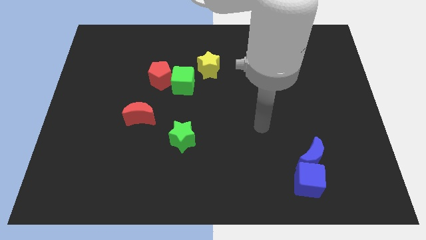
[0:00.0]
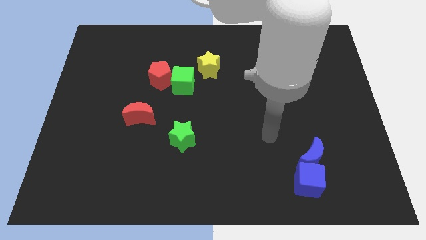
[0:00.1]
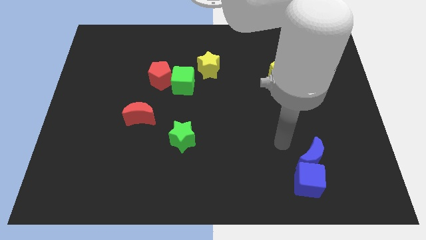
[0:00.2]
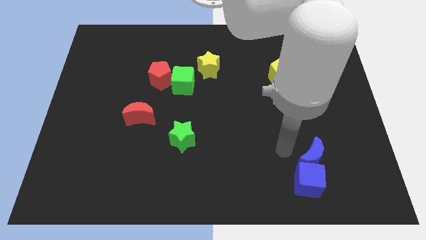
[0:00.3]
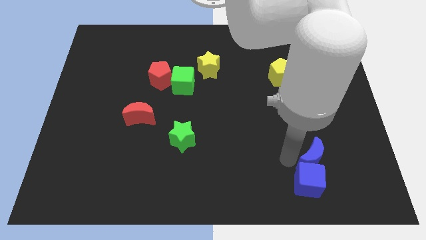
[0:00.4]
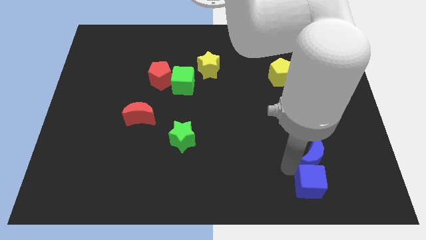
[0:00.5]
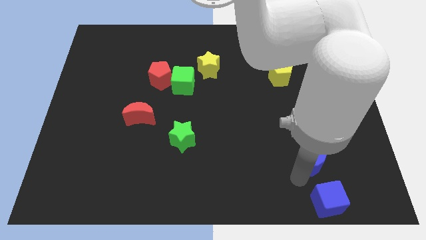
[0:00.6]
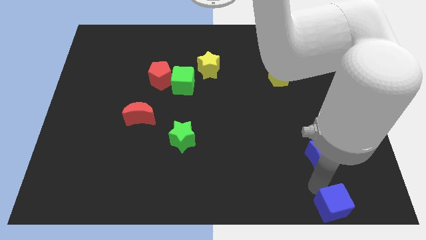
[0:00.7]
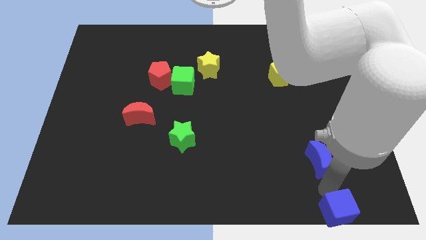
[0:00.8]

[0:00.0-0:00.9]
separate the blue moon from the blue cube

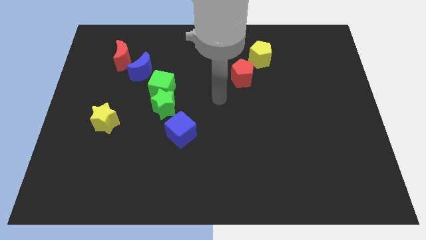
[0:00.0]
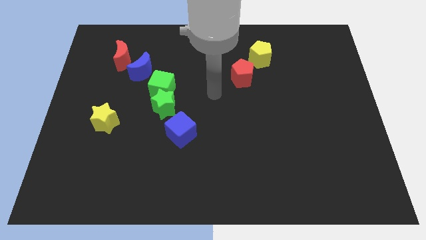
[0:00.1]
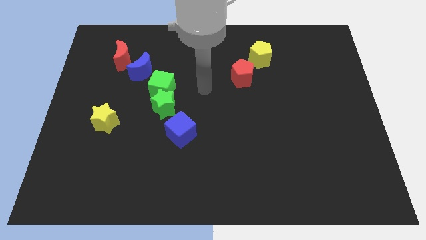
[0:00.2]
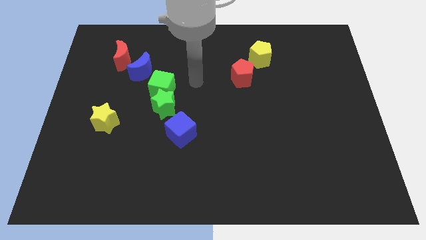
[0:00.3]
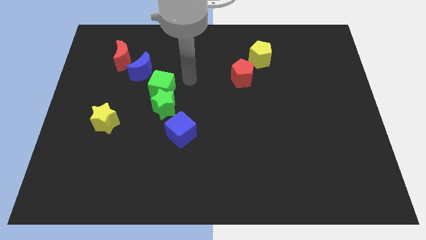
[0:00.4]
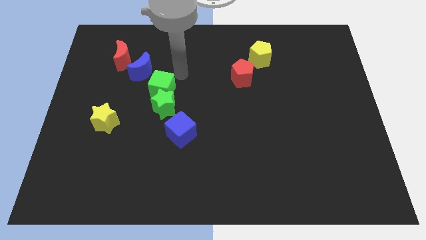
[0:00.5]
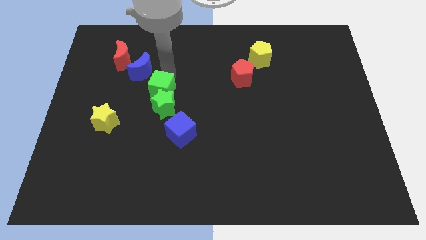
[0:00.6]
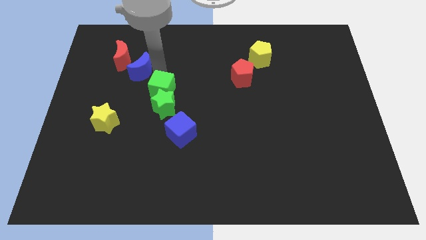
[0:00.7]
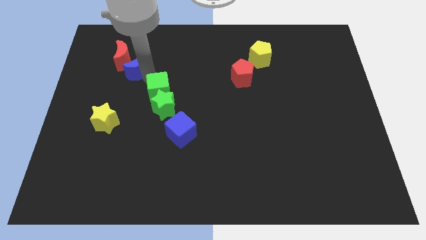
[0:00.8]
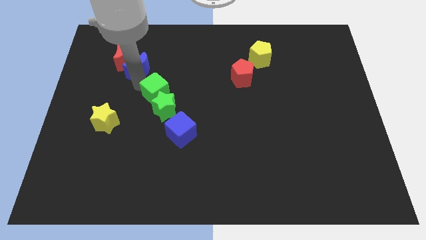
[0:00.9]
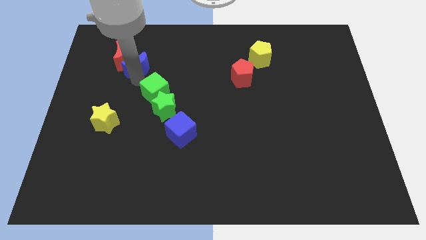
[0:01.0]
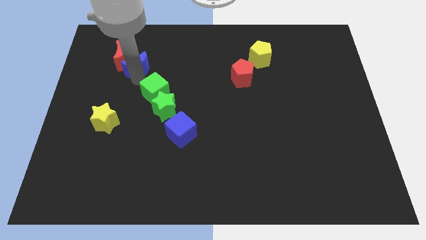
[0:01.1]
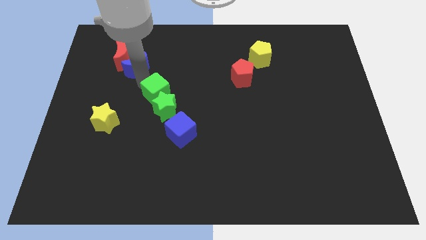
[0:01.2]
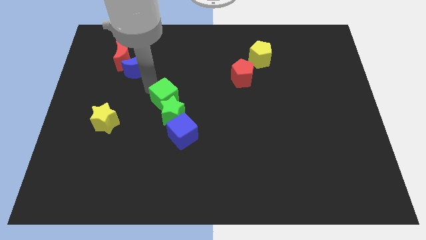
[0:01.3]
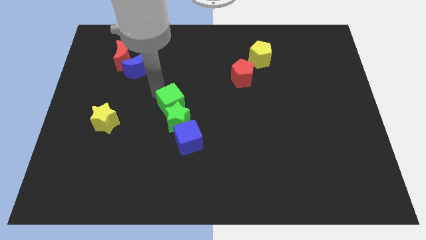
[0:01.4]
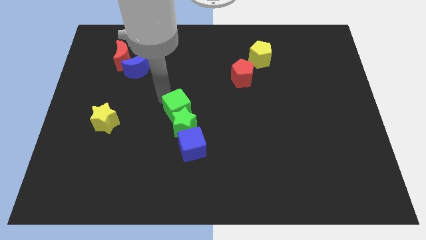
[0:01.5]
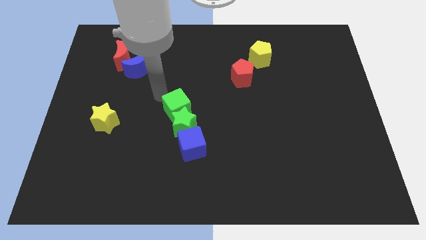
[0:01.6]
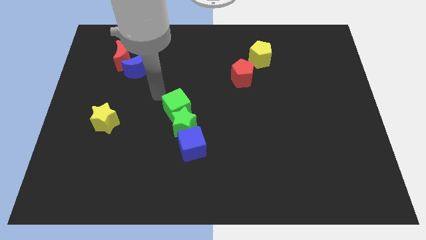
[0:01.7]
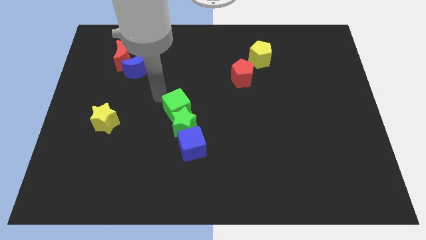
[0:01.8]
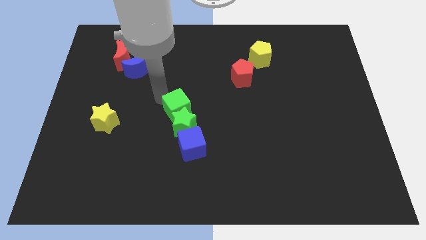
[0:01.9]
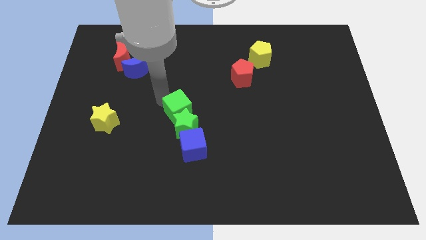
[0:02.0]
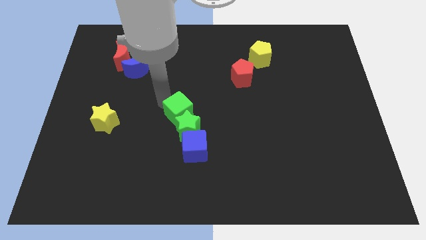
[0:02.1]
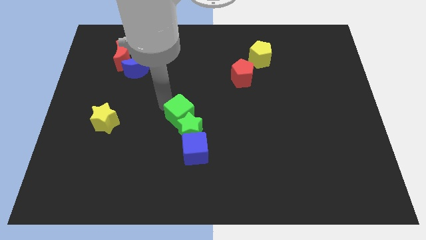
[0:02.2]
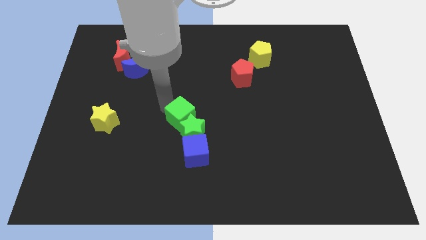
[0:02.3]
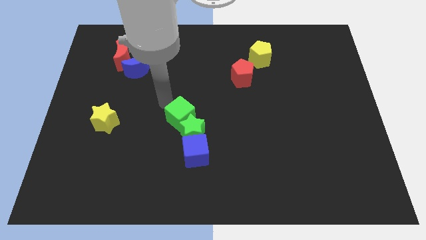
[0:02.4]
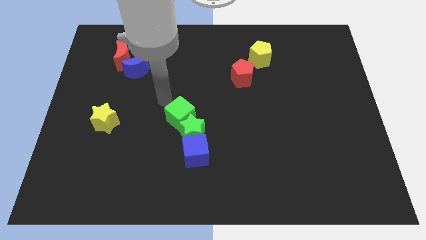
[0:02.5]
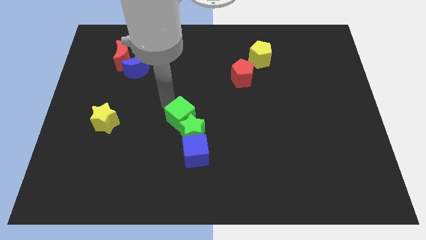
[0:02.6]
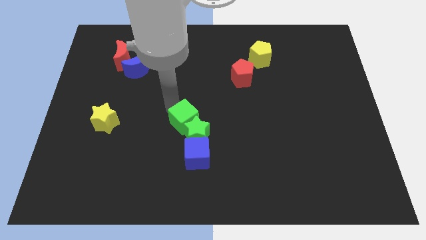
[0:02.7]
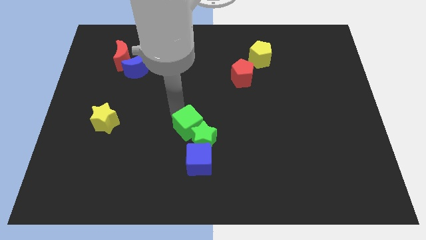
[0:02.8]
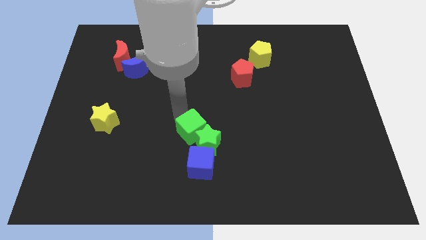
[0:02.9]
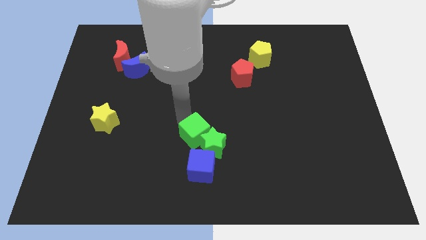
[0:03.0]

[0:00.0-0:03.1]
move the green cube away from the green star and blue moon

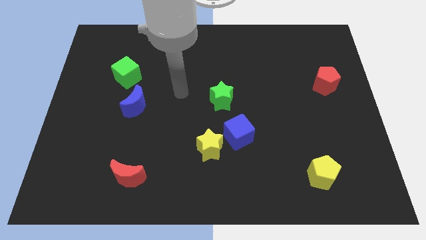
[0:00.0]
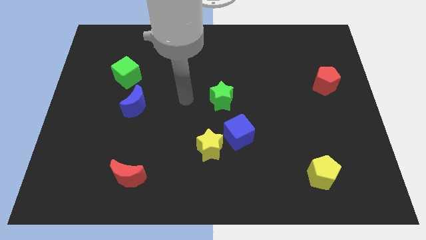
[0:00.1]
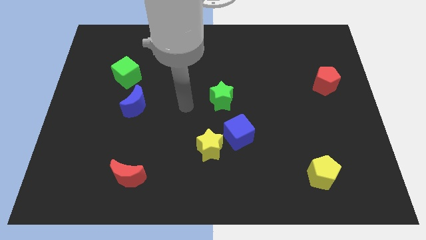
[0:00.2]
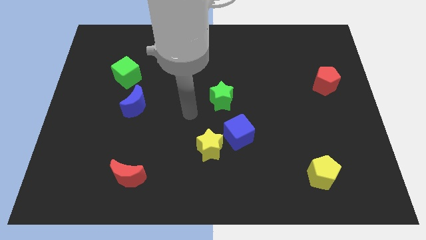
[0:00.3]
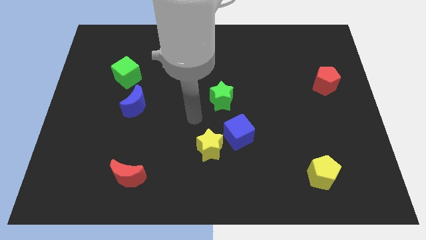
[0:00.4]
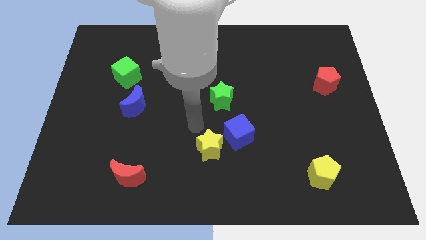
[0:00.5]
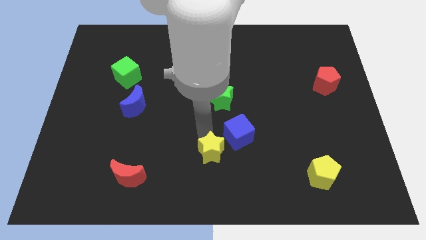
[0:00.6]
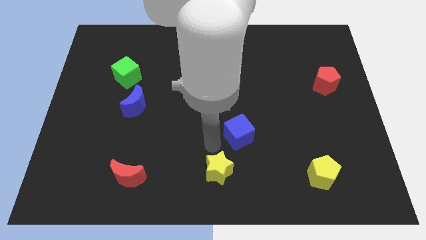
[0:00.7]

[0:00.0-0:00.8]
move the blue cube away from the yellow star

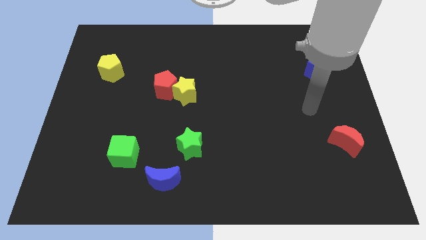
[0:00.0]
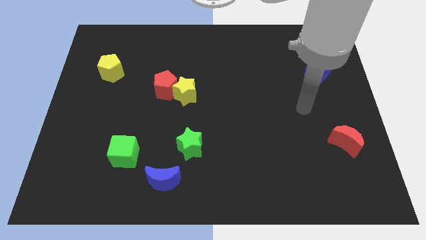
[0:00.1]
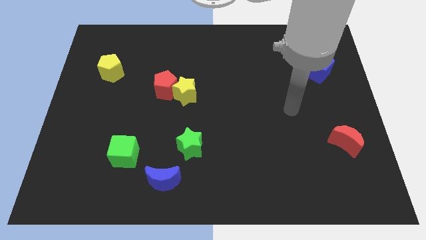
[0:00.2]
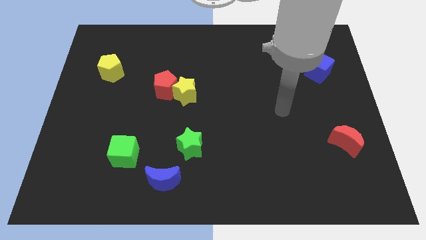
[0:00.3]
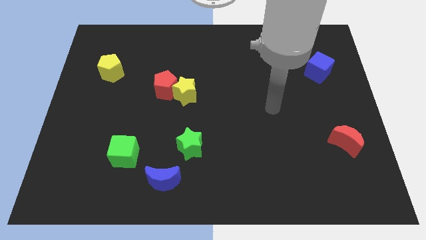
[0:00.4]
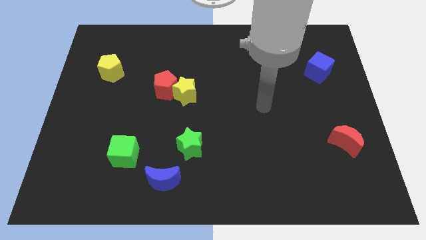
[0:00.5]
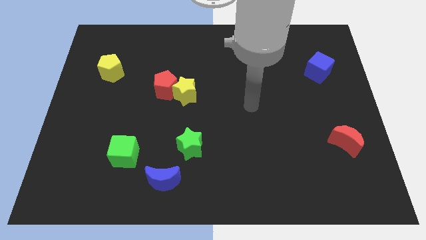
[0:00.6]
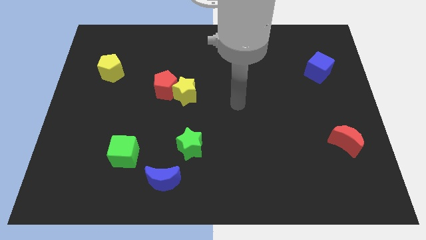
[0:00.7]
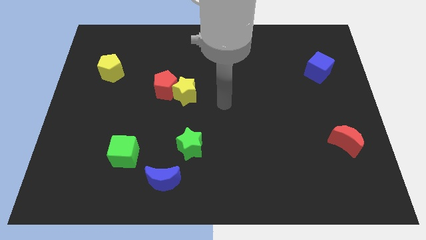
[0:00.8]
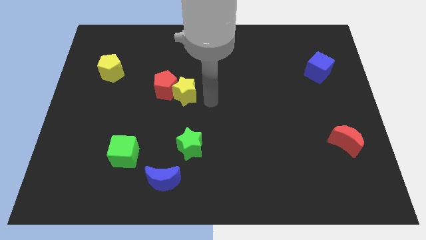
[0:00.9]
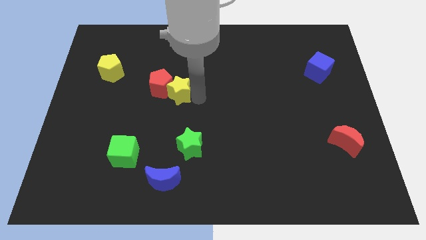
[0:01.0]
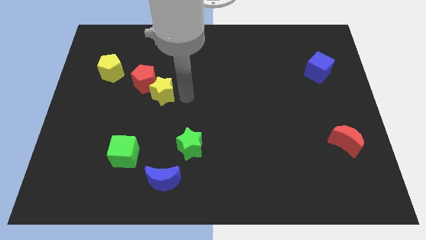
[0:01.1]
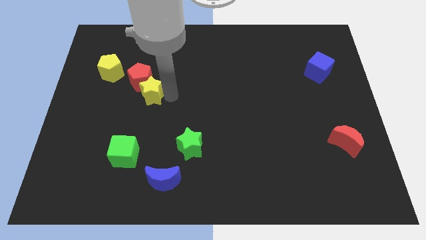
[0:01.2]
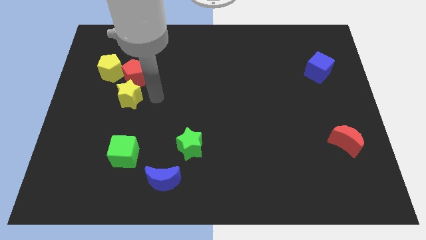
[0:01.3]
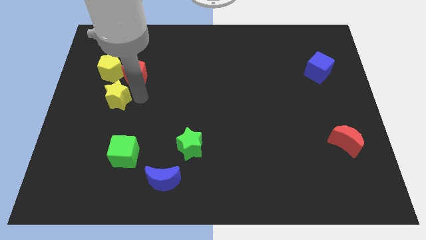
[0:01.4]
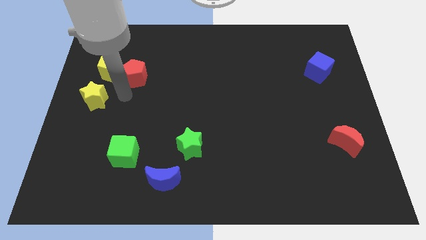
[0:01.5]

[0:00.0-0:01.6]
move the red pentagon away from the yellow star

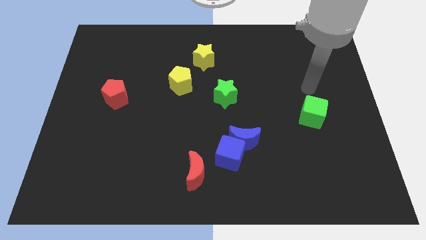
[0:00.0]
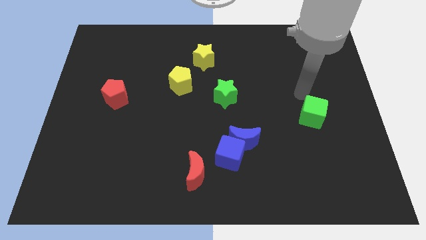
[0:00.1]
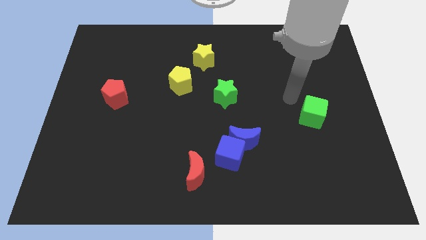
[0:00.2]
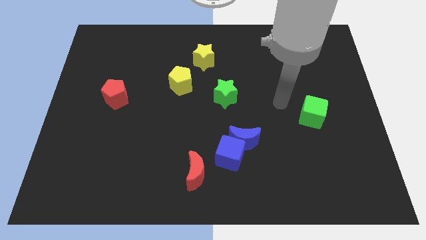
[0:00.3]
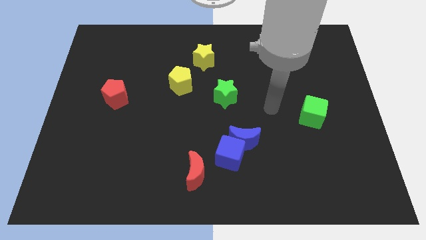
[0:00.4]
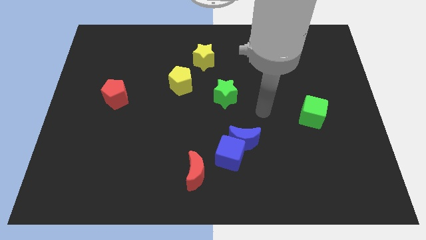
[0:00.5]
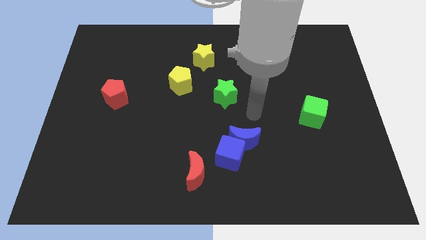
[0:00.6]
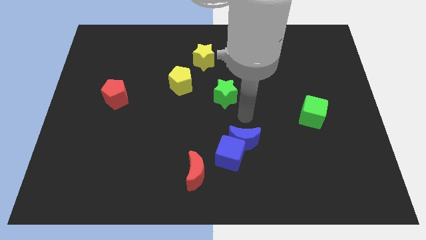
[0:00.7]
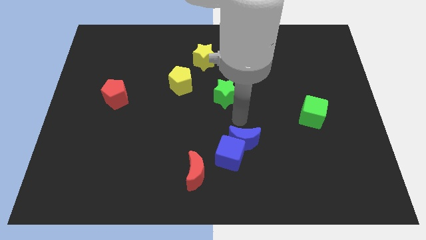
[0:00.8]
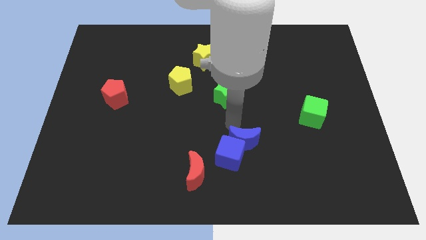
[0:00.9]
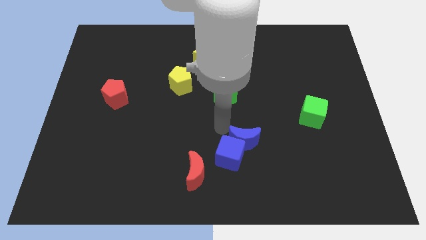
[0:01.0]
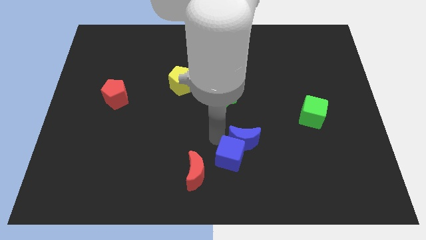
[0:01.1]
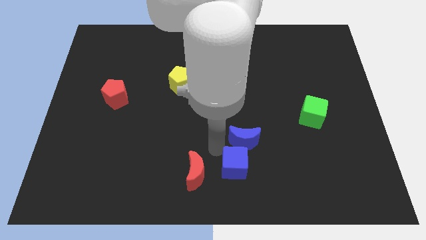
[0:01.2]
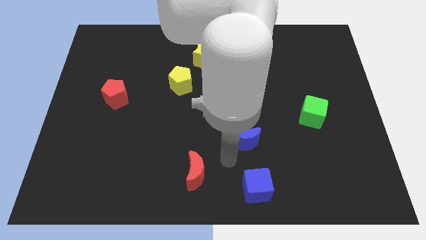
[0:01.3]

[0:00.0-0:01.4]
move the blue moon away from the blue cube

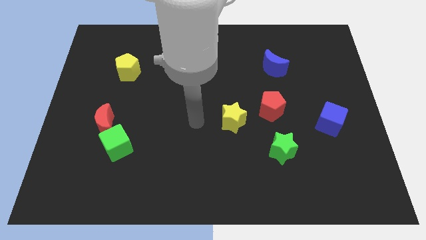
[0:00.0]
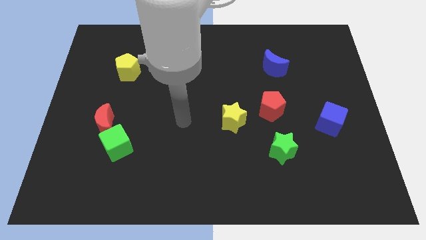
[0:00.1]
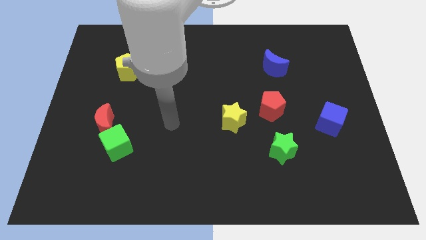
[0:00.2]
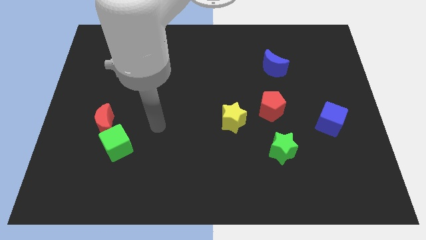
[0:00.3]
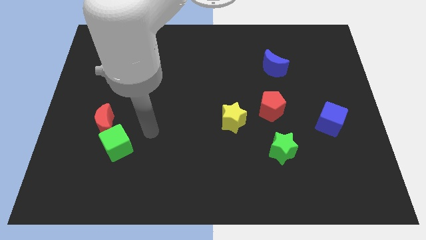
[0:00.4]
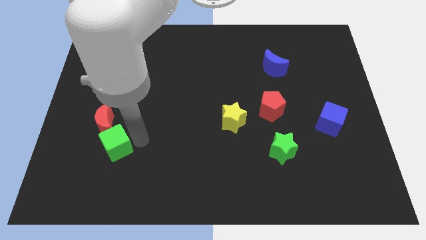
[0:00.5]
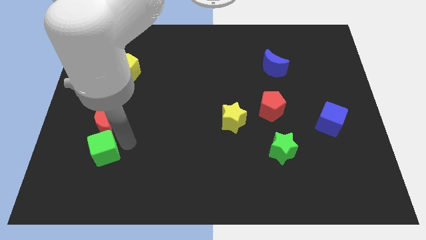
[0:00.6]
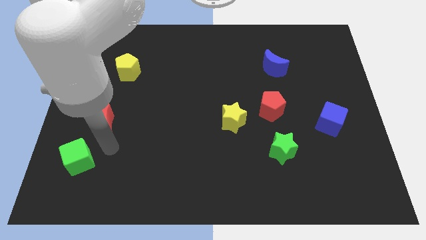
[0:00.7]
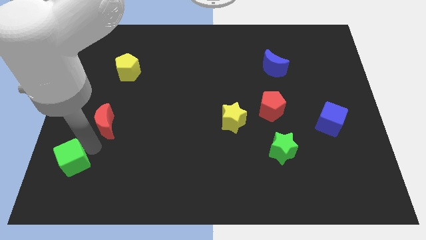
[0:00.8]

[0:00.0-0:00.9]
move the red moon away from the green cube

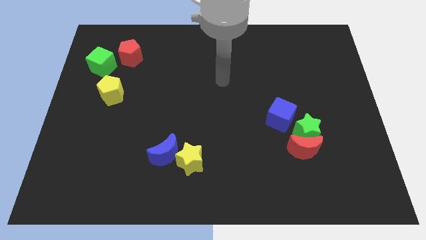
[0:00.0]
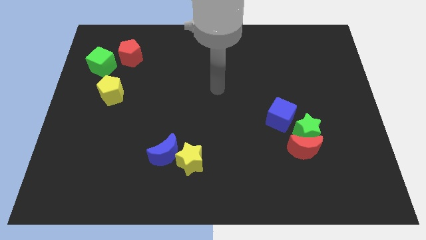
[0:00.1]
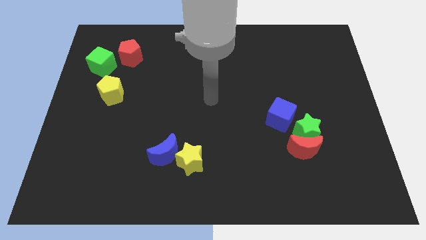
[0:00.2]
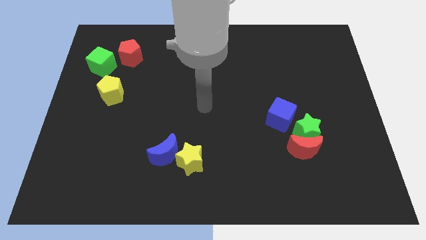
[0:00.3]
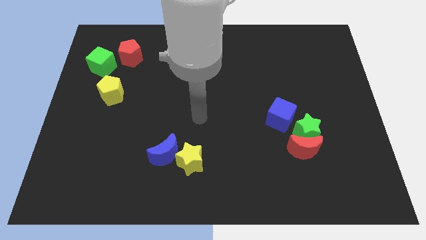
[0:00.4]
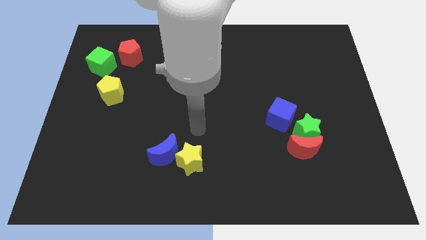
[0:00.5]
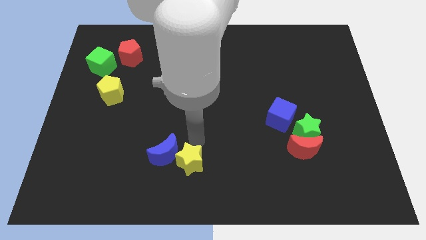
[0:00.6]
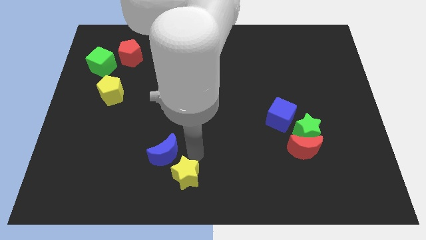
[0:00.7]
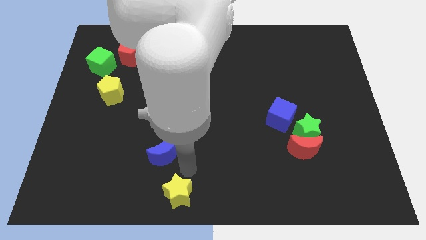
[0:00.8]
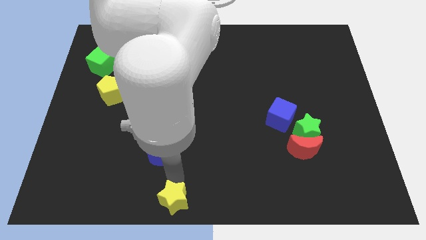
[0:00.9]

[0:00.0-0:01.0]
separate the blue moon from the yellow star
